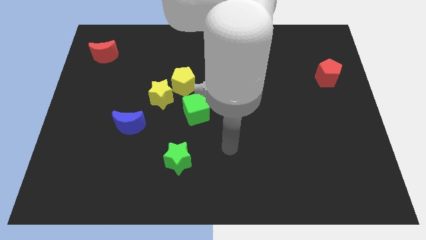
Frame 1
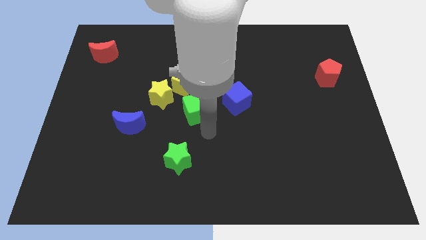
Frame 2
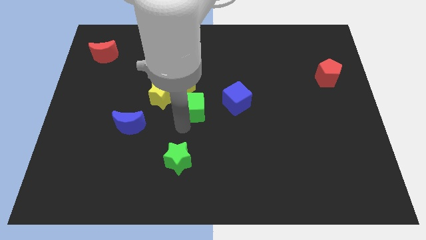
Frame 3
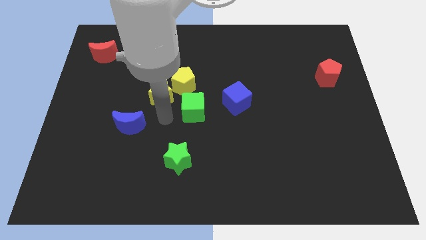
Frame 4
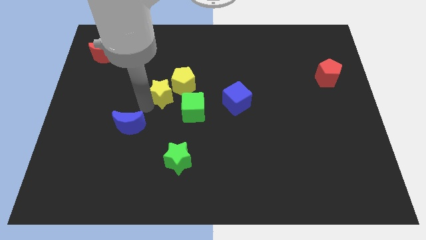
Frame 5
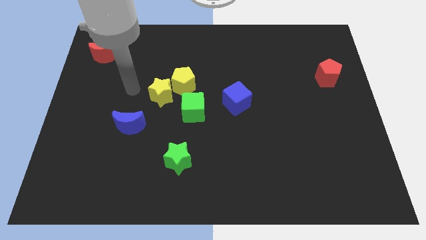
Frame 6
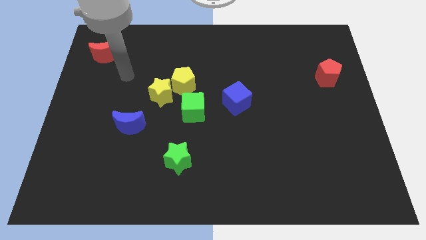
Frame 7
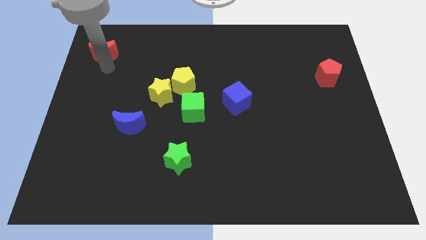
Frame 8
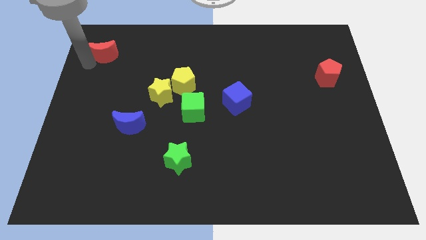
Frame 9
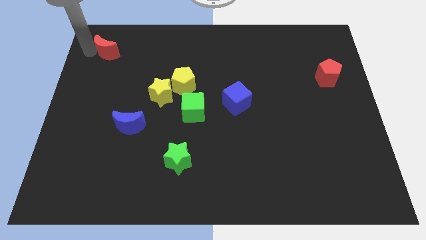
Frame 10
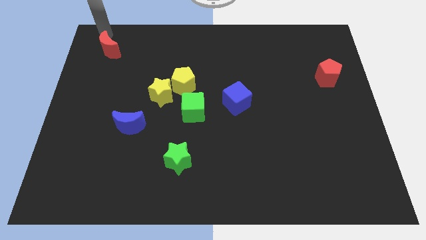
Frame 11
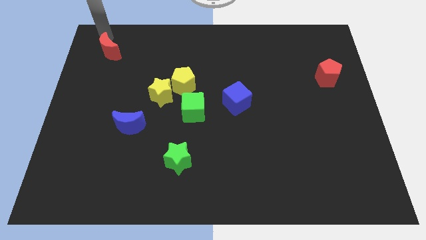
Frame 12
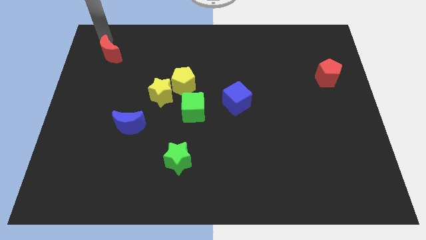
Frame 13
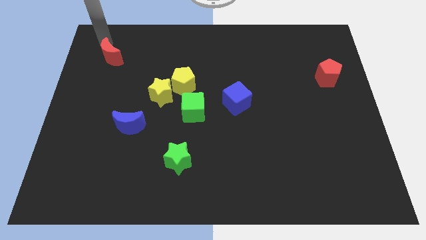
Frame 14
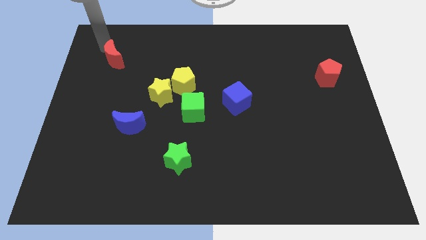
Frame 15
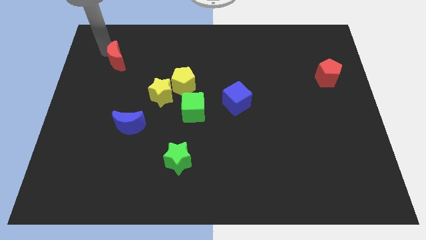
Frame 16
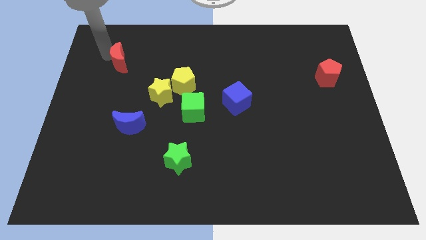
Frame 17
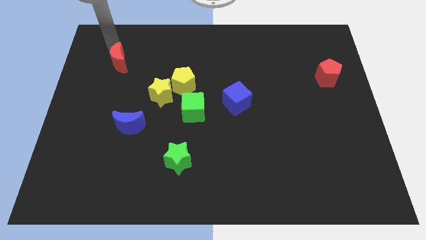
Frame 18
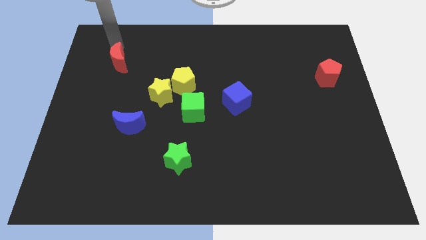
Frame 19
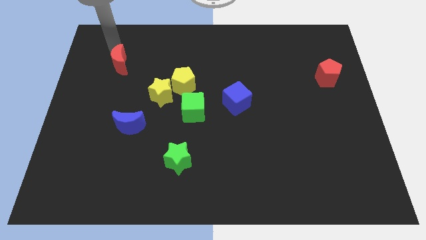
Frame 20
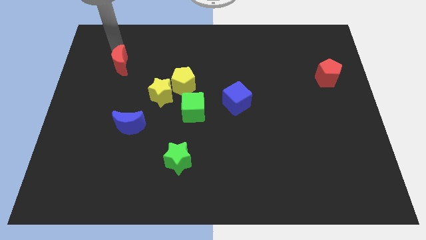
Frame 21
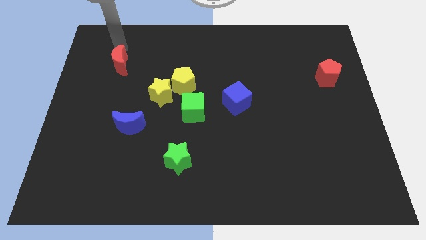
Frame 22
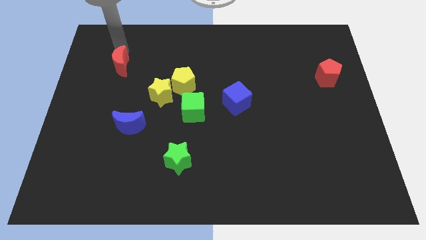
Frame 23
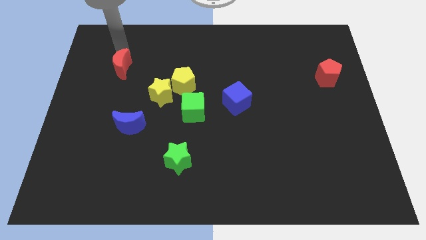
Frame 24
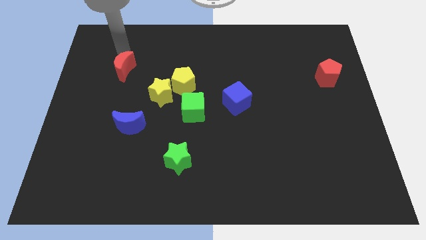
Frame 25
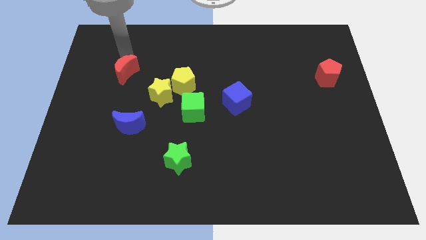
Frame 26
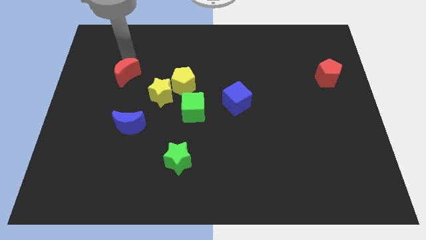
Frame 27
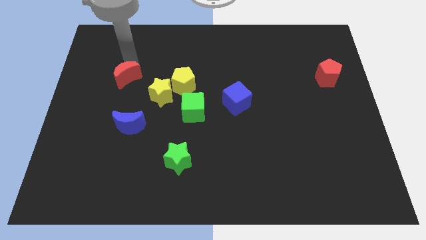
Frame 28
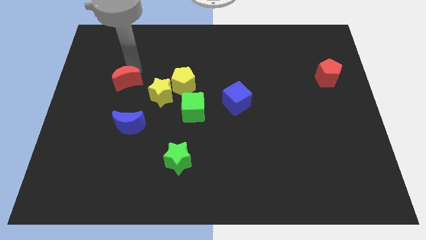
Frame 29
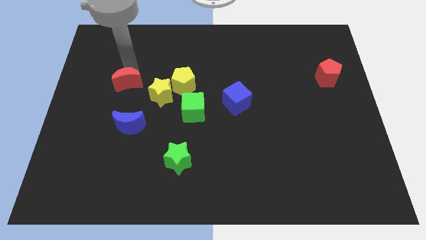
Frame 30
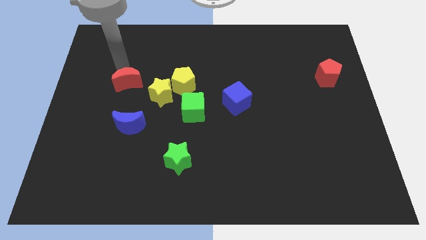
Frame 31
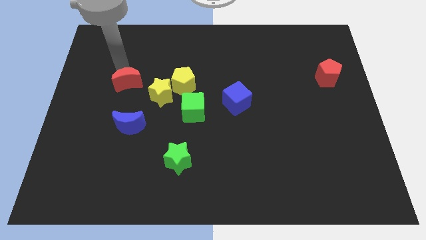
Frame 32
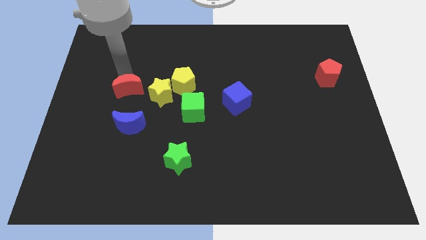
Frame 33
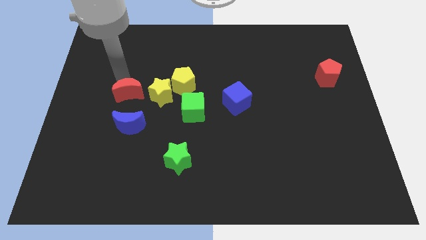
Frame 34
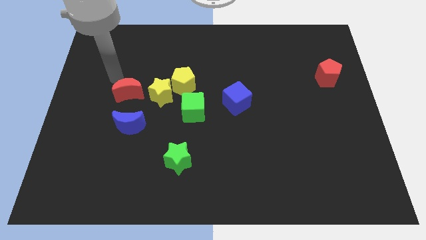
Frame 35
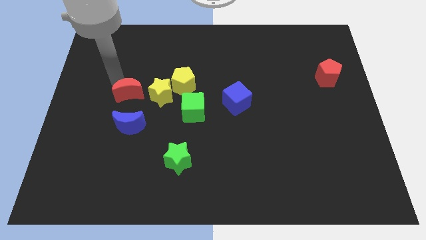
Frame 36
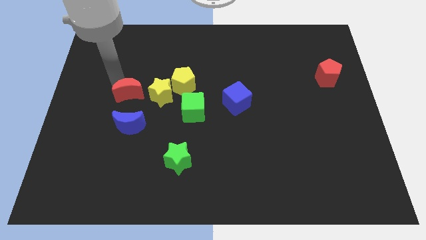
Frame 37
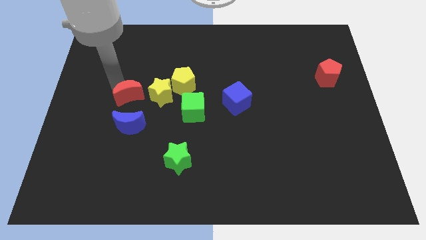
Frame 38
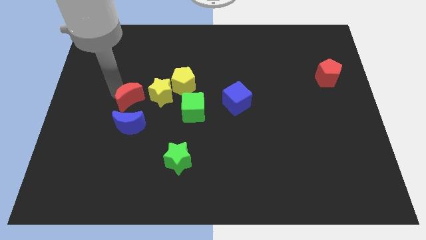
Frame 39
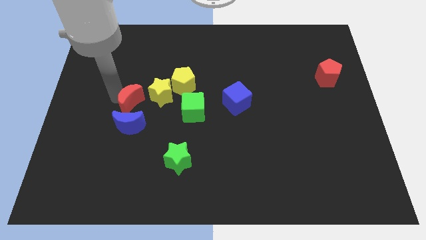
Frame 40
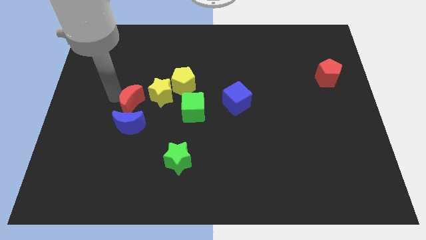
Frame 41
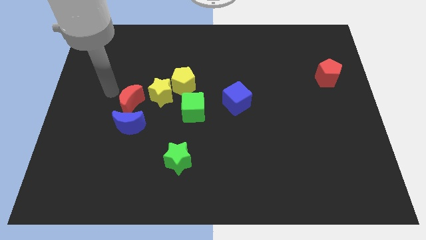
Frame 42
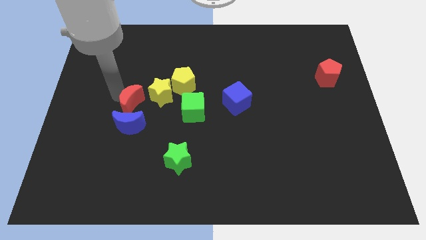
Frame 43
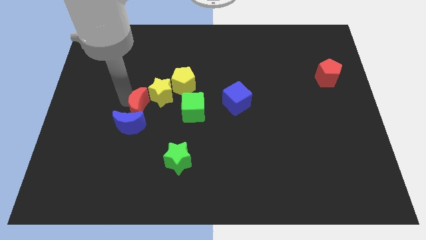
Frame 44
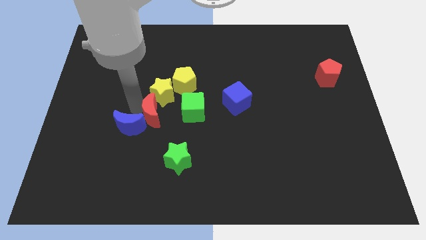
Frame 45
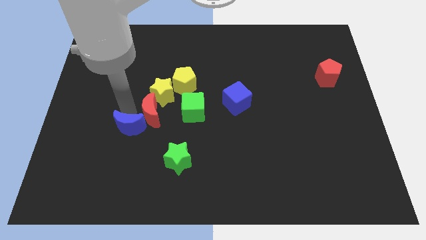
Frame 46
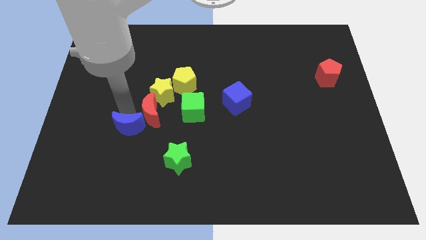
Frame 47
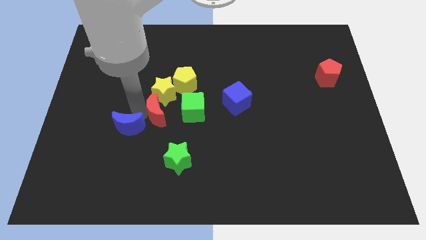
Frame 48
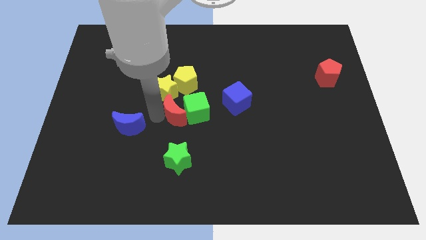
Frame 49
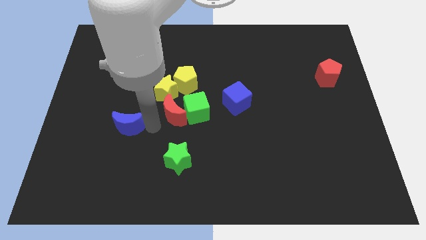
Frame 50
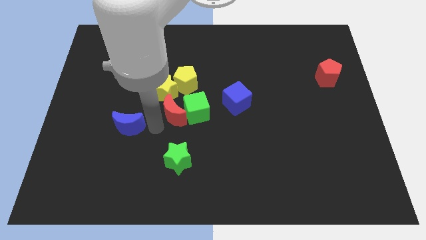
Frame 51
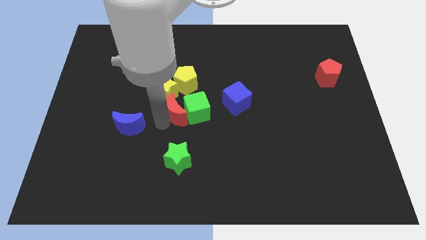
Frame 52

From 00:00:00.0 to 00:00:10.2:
move the red moon left of the blue cube

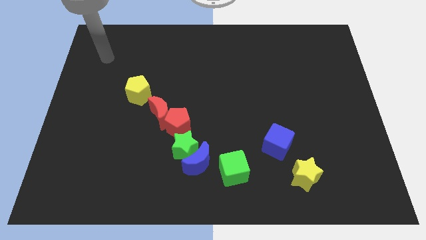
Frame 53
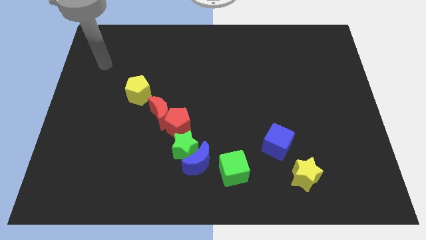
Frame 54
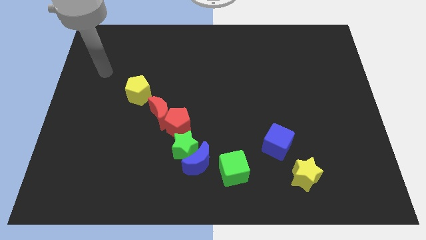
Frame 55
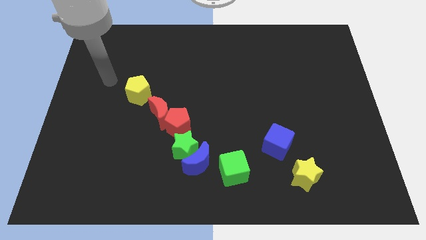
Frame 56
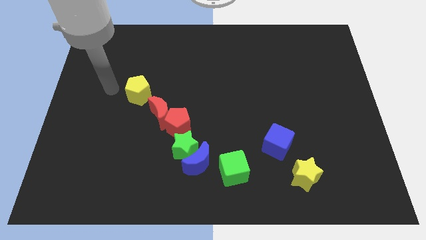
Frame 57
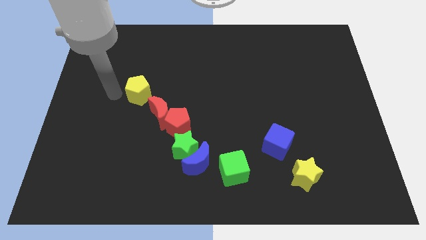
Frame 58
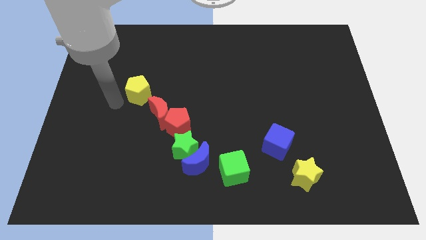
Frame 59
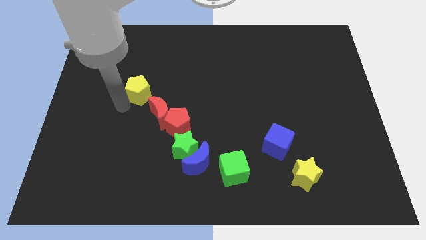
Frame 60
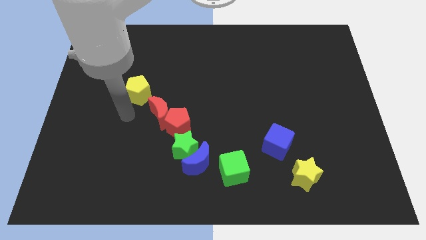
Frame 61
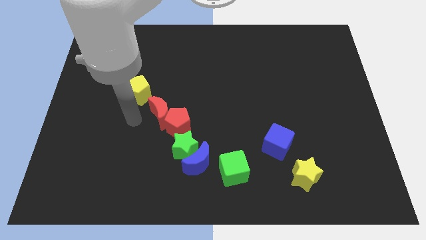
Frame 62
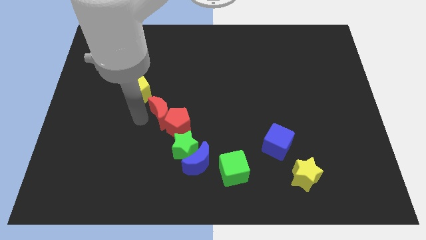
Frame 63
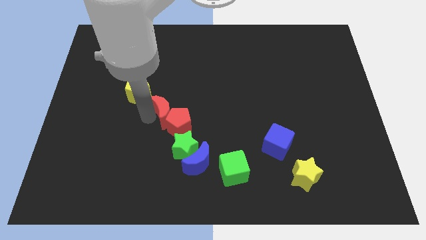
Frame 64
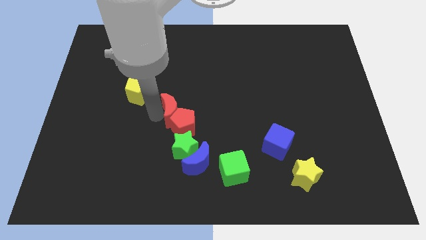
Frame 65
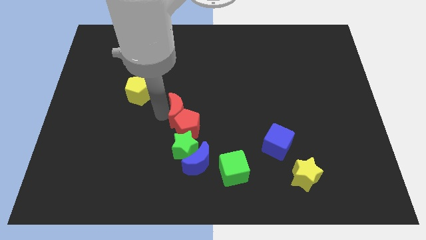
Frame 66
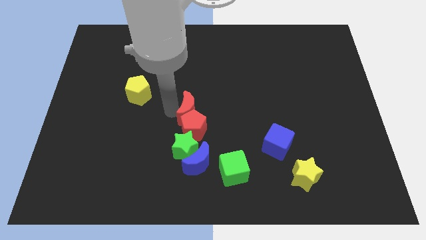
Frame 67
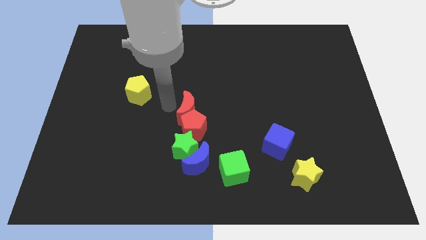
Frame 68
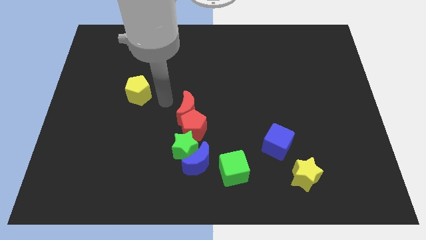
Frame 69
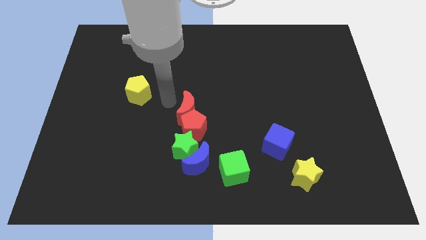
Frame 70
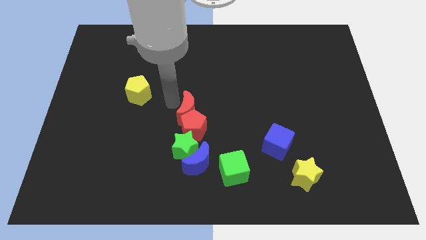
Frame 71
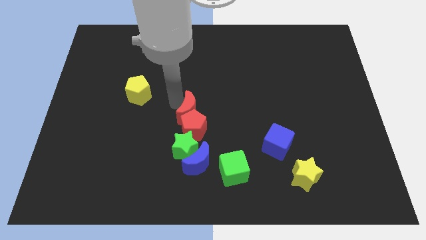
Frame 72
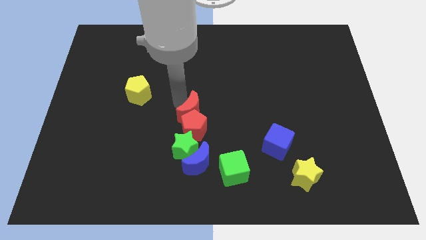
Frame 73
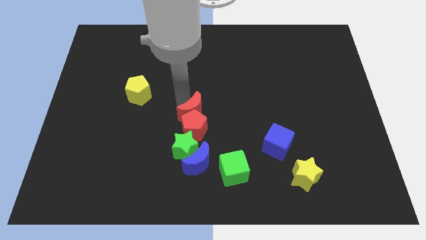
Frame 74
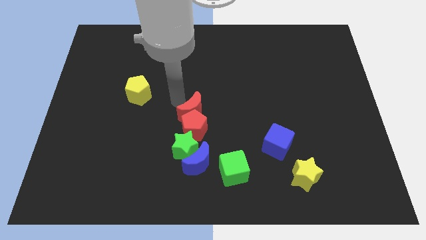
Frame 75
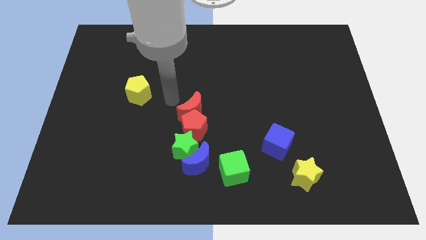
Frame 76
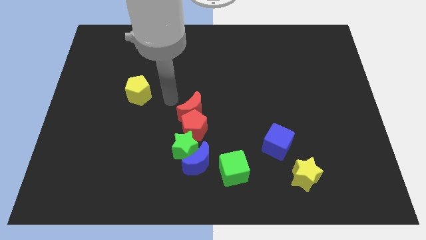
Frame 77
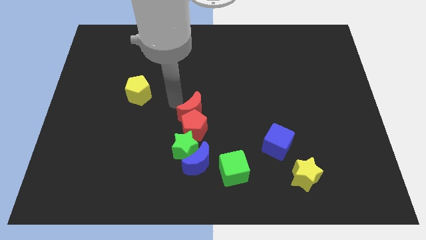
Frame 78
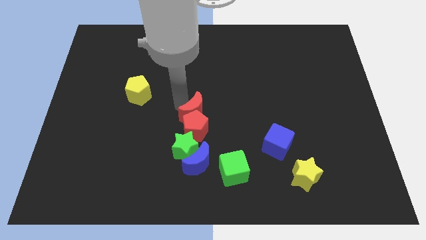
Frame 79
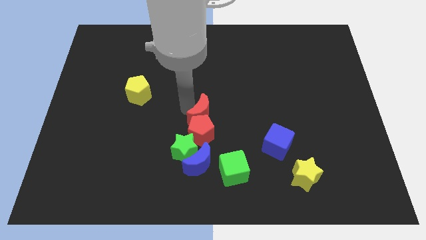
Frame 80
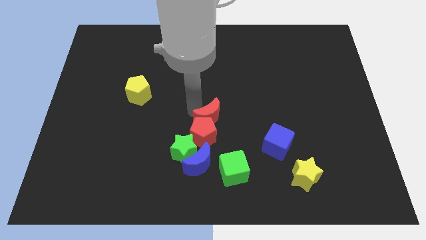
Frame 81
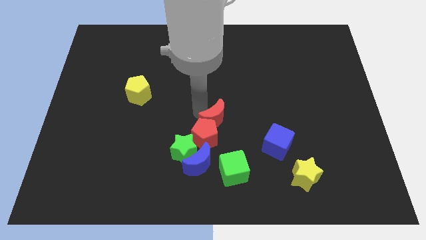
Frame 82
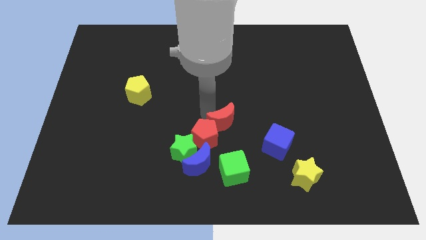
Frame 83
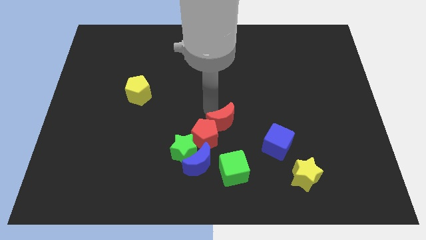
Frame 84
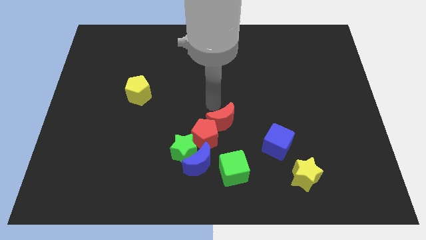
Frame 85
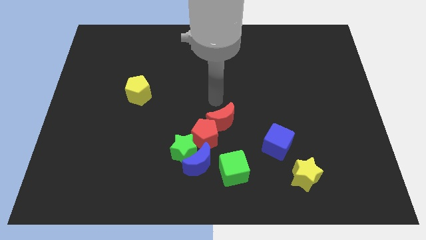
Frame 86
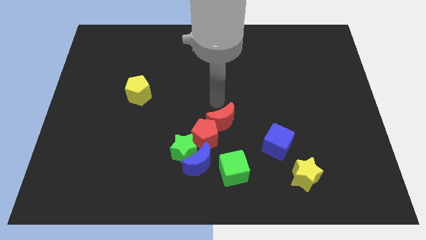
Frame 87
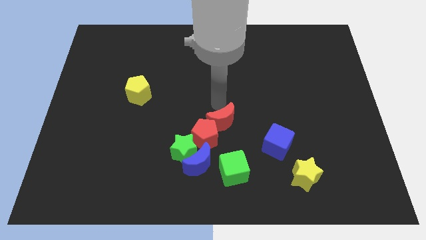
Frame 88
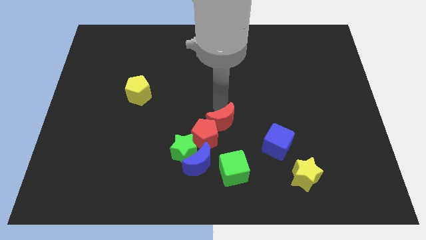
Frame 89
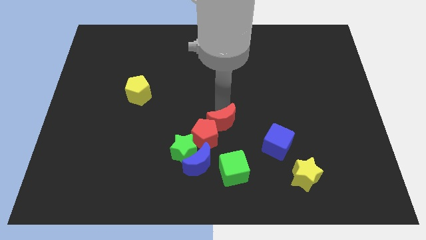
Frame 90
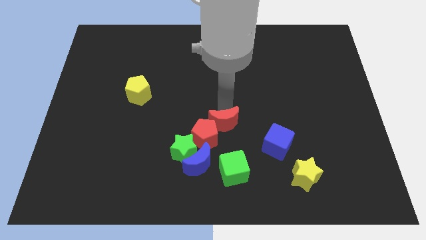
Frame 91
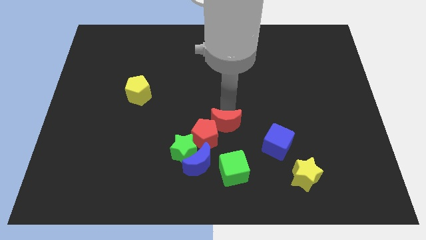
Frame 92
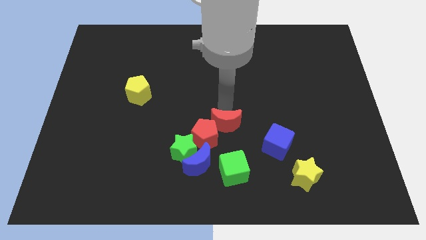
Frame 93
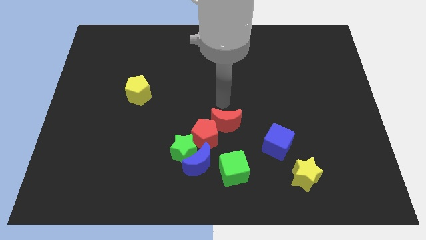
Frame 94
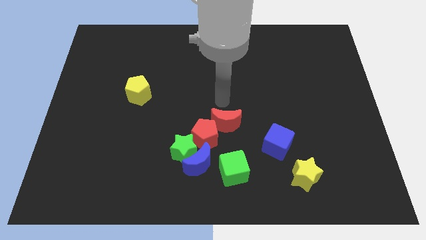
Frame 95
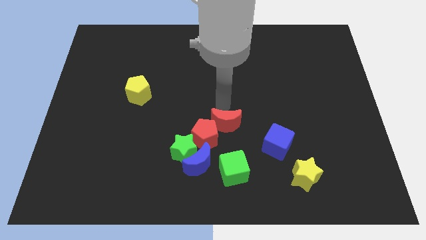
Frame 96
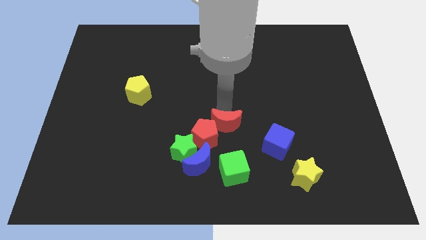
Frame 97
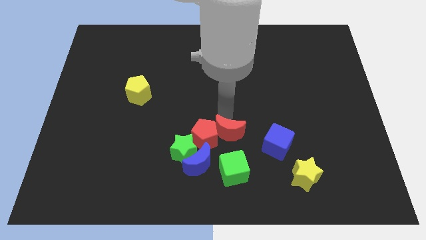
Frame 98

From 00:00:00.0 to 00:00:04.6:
slide the red moon to the left side of the blue cube
